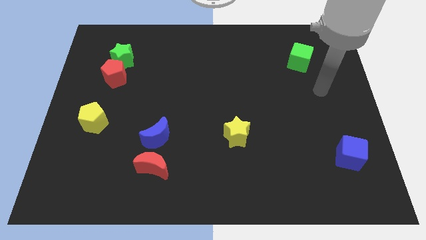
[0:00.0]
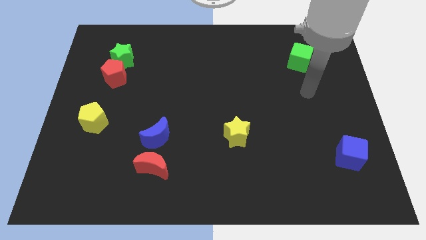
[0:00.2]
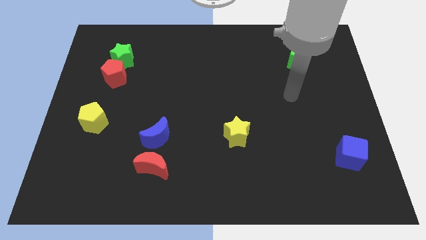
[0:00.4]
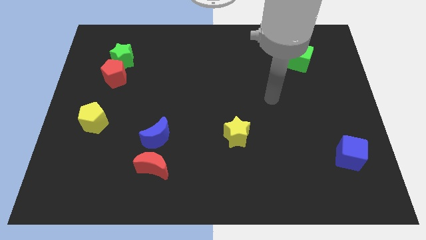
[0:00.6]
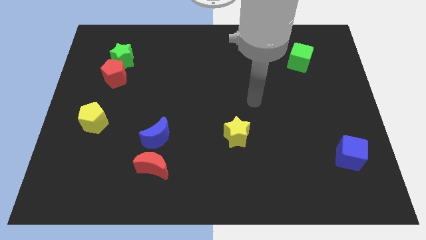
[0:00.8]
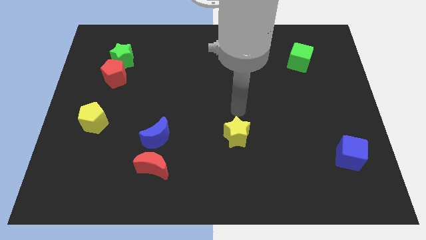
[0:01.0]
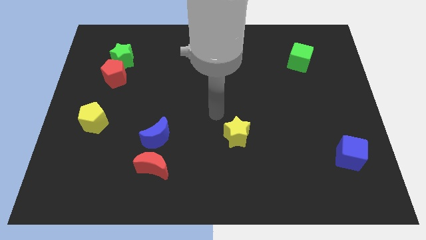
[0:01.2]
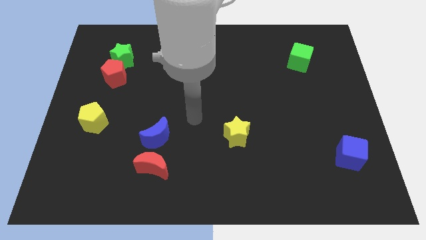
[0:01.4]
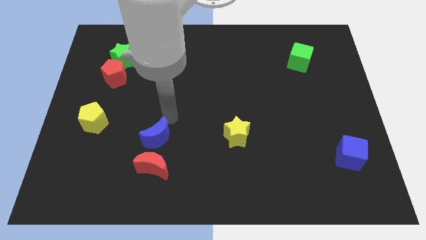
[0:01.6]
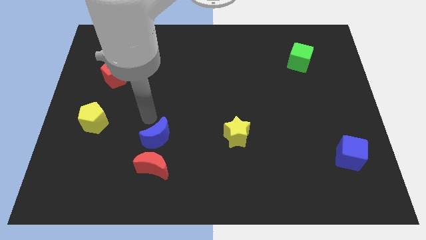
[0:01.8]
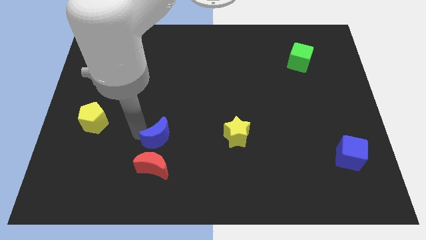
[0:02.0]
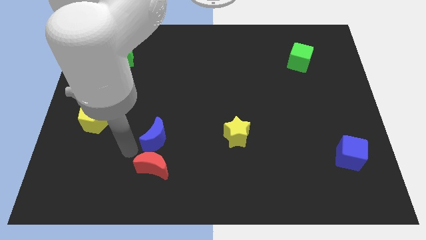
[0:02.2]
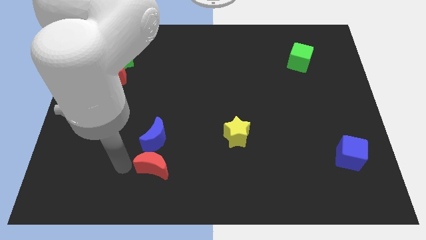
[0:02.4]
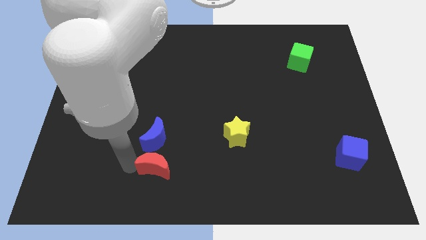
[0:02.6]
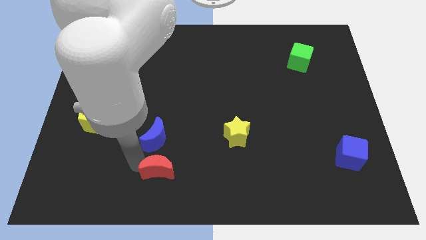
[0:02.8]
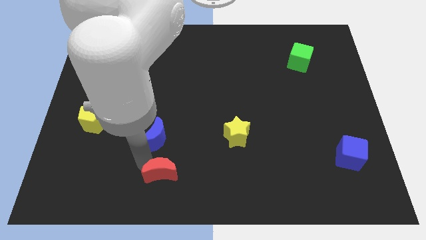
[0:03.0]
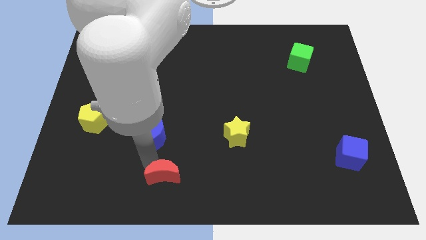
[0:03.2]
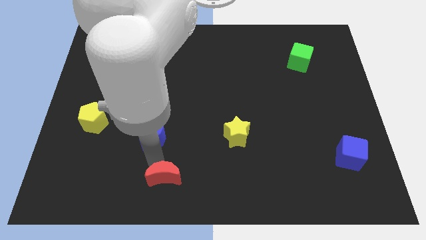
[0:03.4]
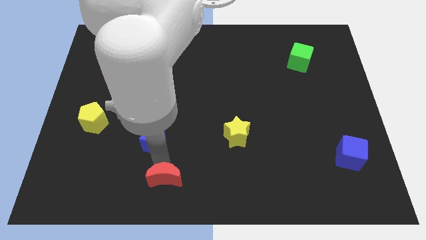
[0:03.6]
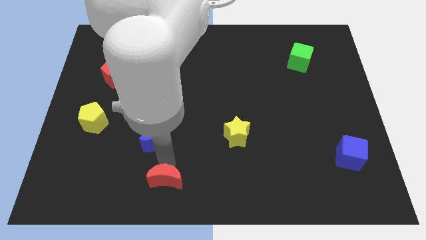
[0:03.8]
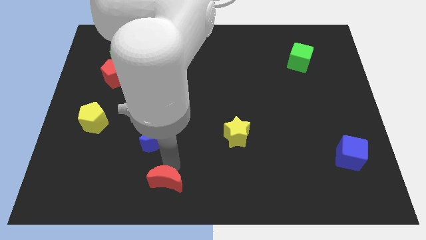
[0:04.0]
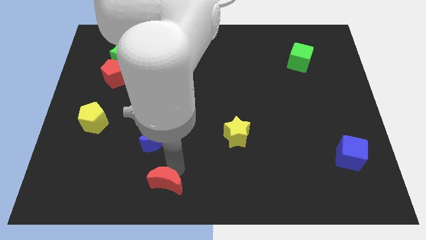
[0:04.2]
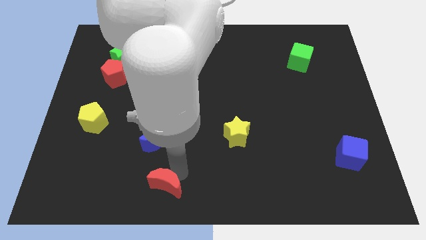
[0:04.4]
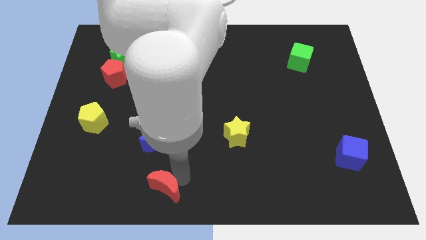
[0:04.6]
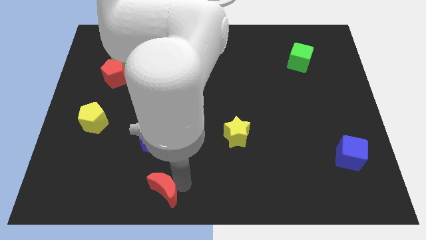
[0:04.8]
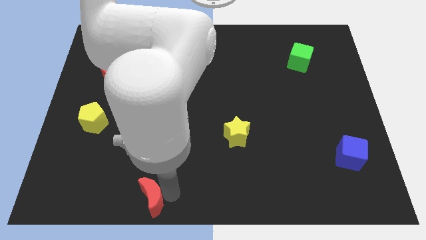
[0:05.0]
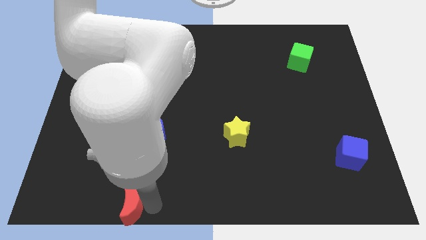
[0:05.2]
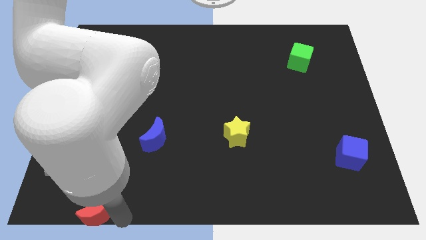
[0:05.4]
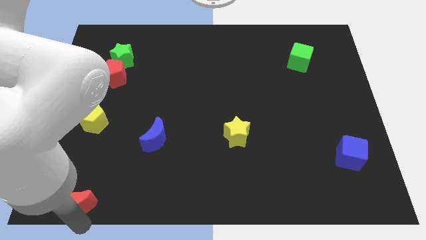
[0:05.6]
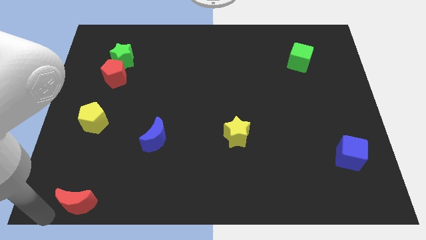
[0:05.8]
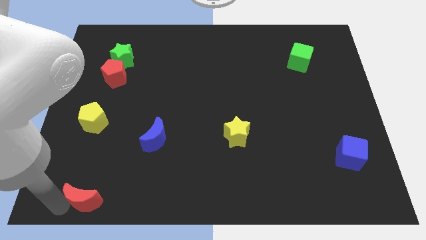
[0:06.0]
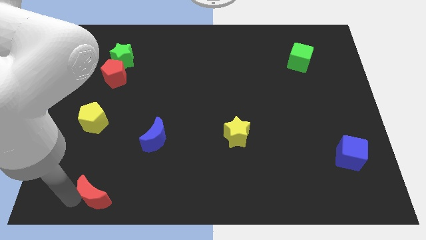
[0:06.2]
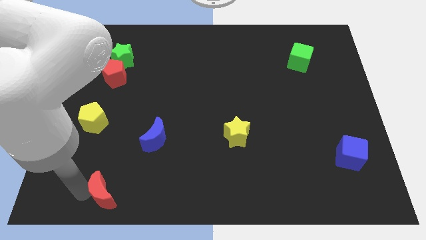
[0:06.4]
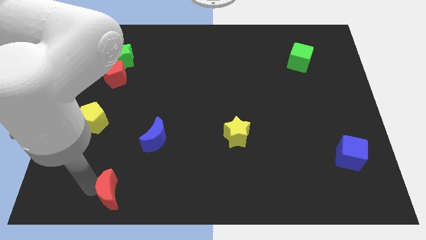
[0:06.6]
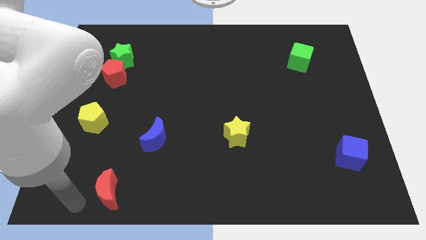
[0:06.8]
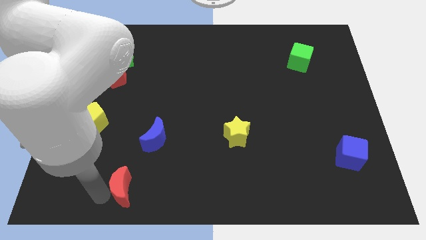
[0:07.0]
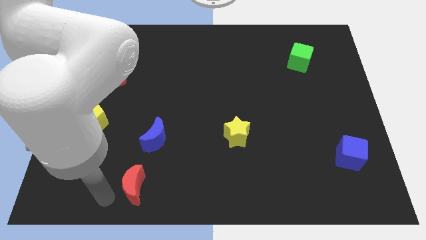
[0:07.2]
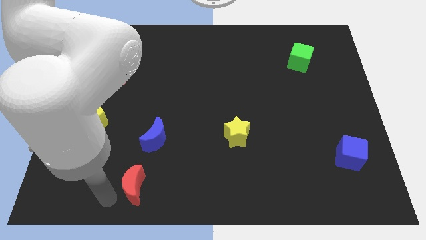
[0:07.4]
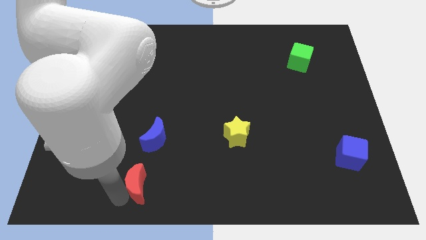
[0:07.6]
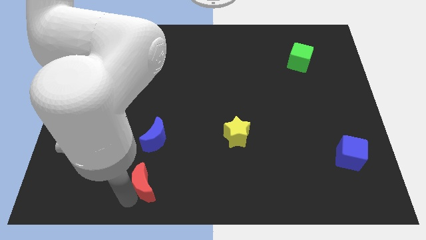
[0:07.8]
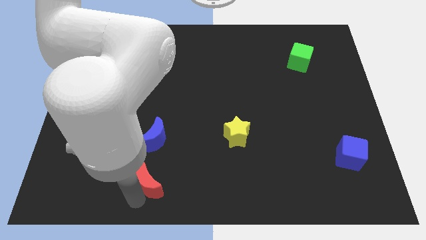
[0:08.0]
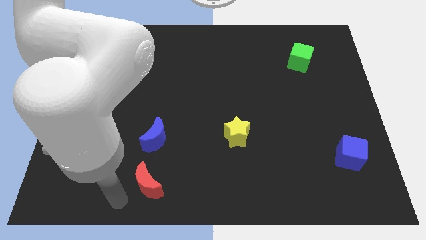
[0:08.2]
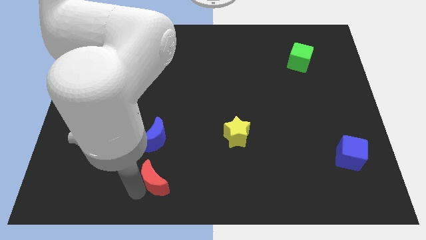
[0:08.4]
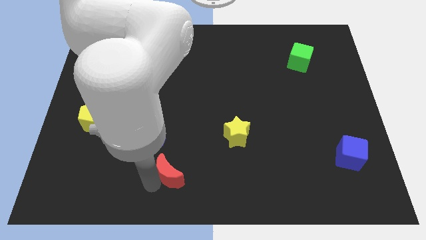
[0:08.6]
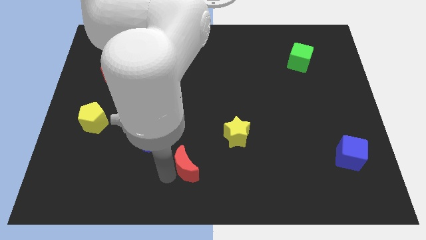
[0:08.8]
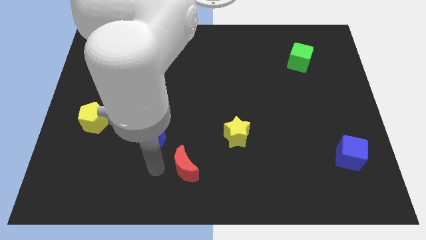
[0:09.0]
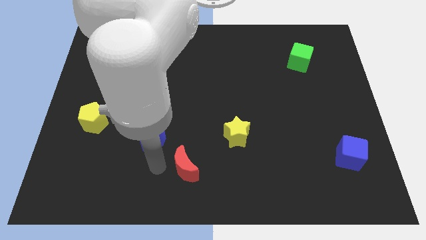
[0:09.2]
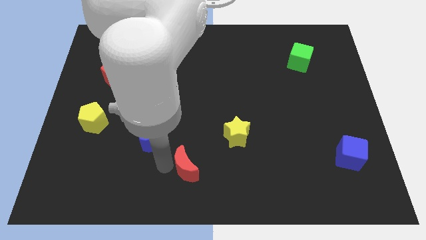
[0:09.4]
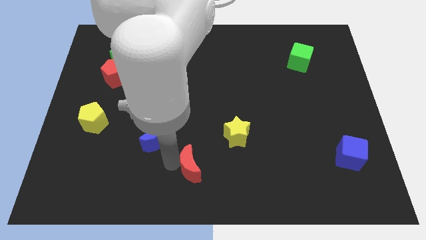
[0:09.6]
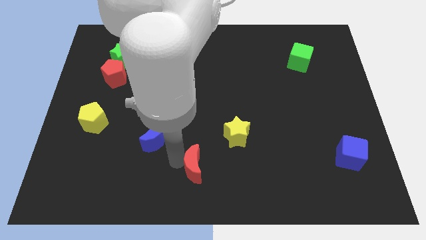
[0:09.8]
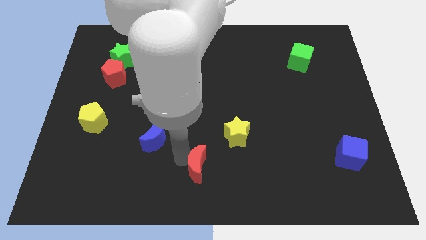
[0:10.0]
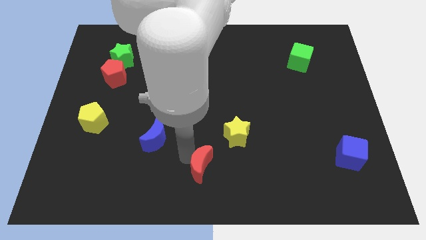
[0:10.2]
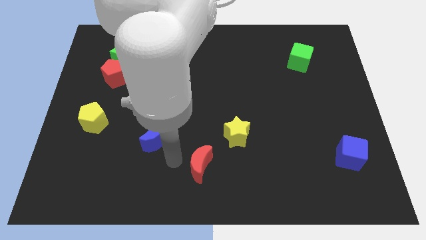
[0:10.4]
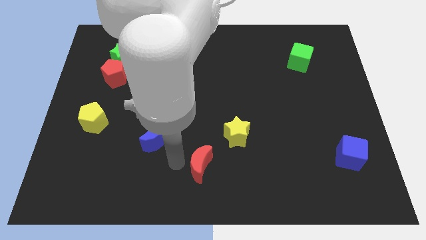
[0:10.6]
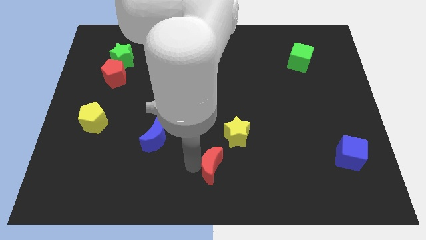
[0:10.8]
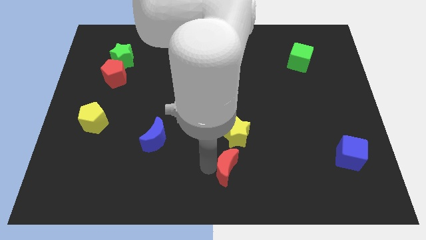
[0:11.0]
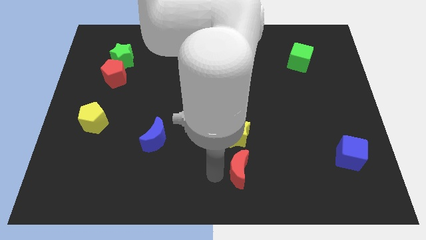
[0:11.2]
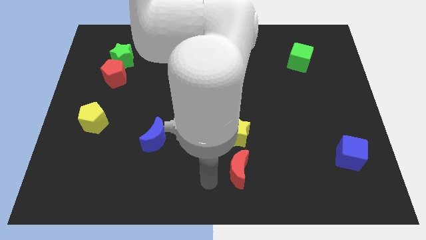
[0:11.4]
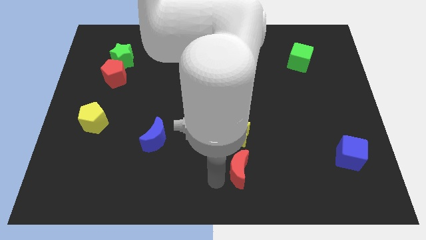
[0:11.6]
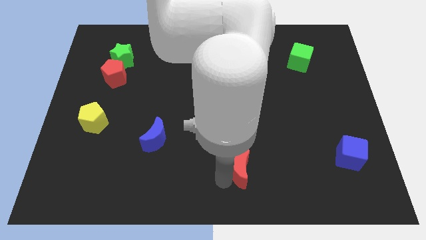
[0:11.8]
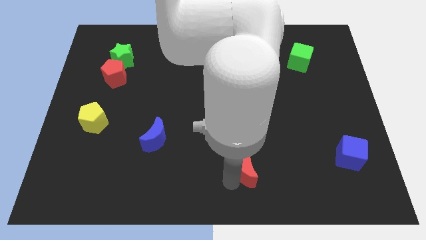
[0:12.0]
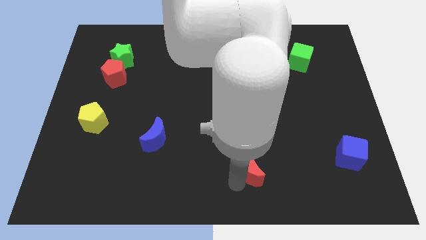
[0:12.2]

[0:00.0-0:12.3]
slide the red moon to the right

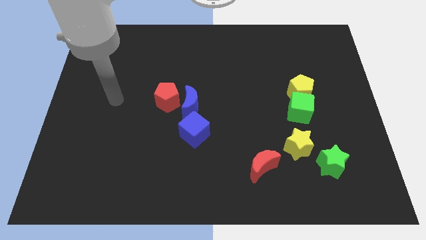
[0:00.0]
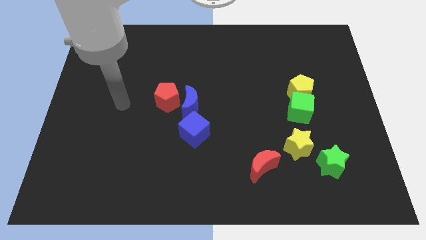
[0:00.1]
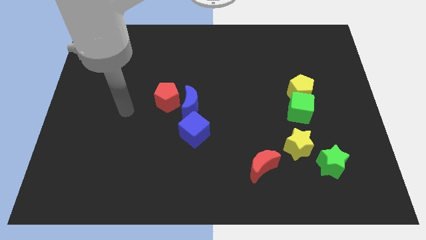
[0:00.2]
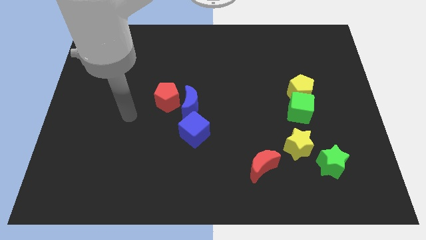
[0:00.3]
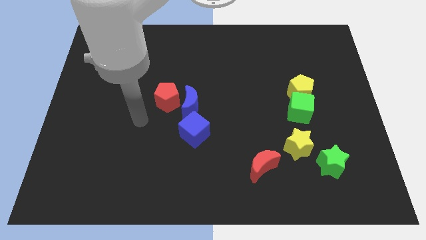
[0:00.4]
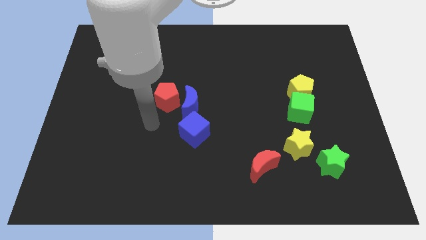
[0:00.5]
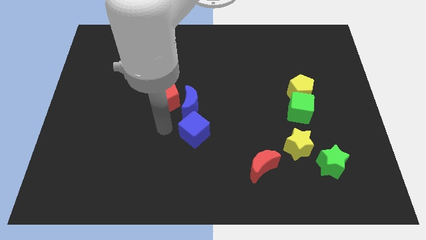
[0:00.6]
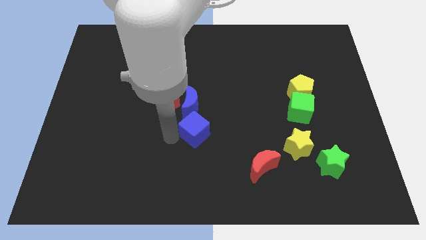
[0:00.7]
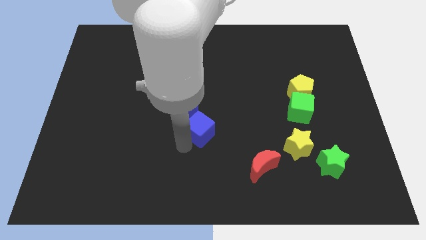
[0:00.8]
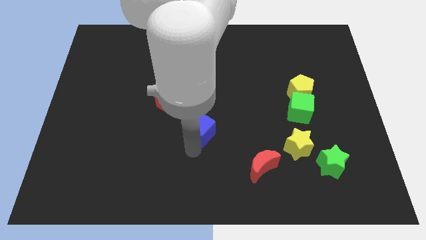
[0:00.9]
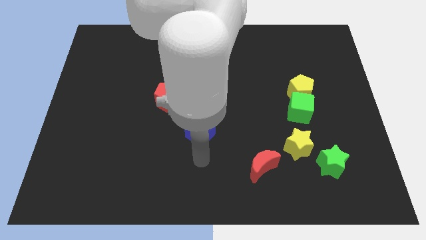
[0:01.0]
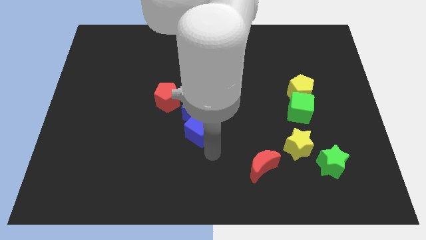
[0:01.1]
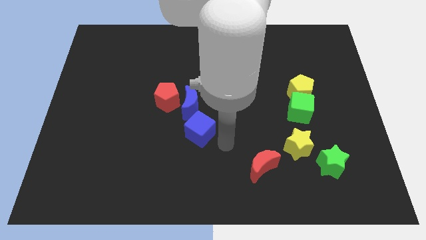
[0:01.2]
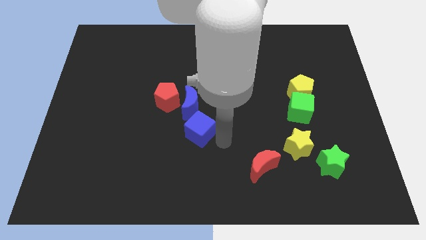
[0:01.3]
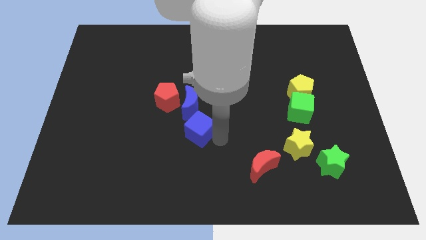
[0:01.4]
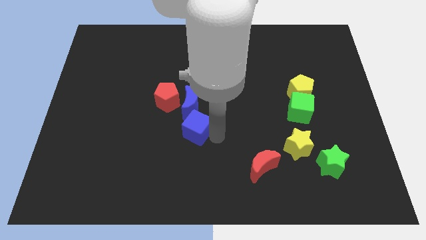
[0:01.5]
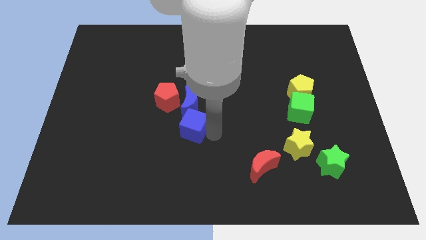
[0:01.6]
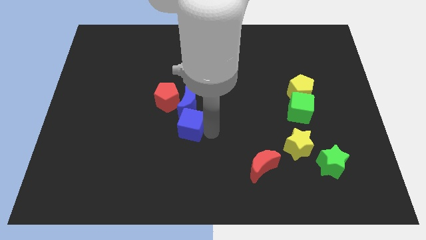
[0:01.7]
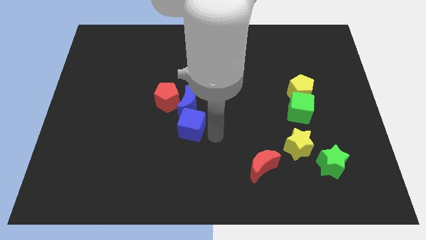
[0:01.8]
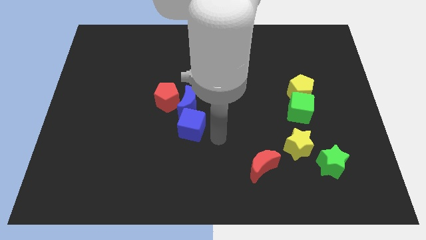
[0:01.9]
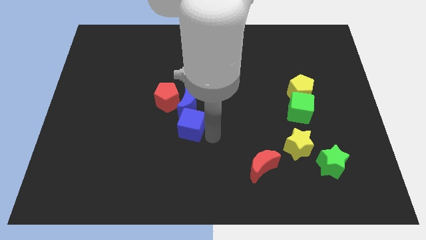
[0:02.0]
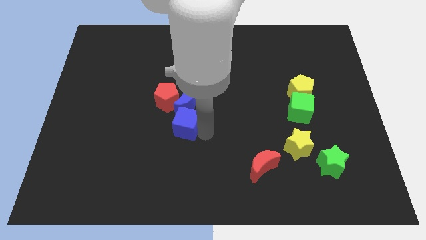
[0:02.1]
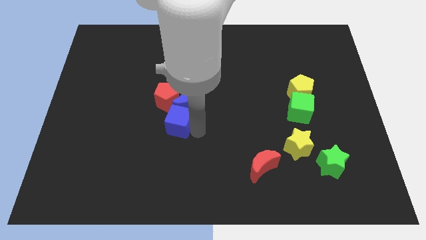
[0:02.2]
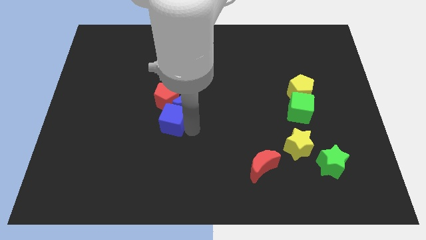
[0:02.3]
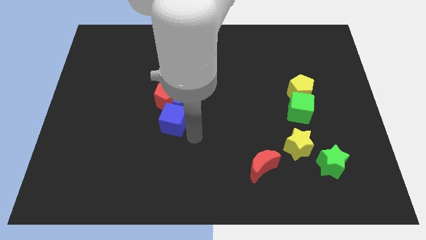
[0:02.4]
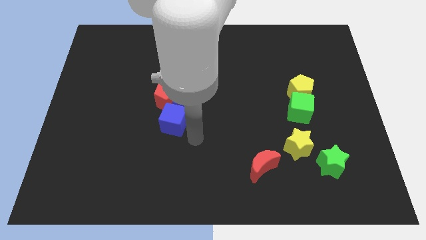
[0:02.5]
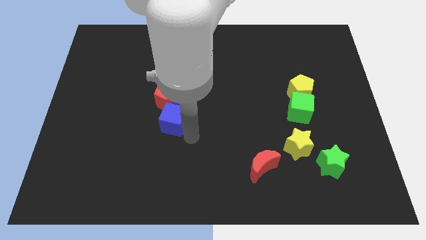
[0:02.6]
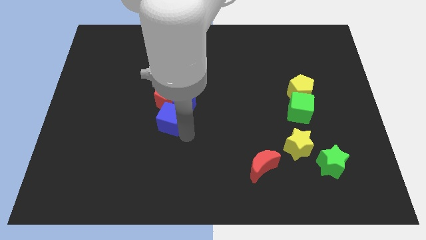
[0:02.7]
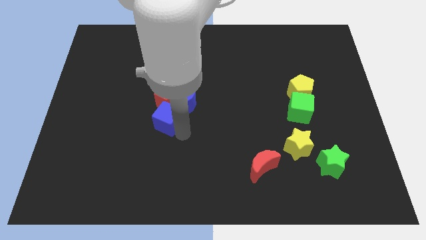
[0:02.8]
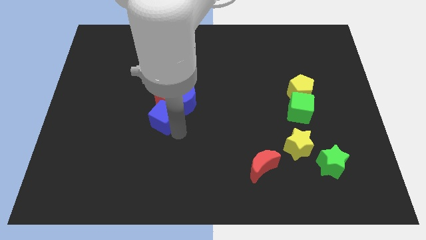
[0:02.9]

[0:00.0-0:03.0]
slightly move the blue cube diagonally upwards and left
